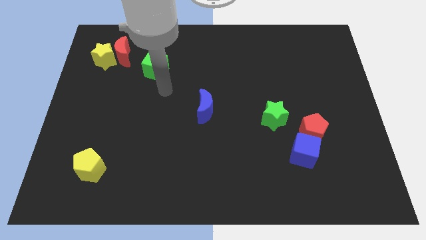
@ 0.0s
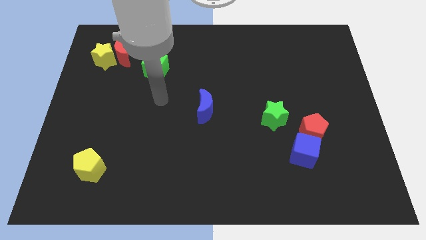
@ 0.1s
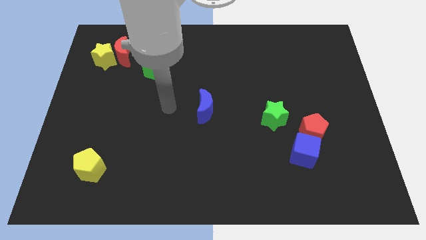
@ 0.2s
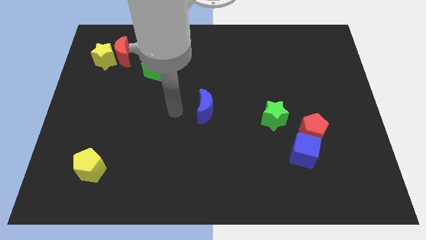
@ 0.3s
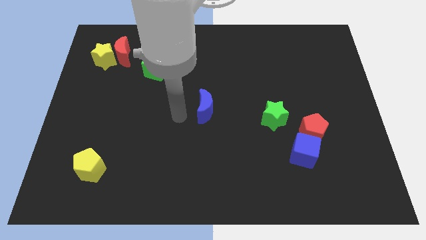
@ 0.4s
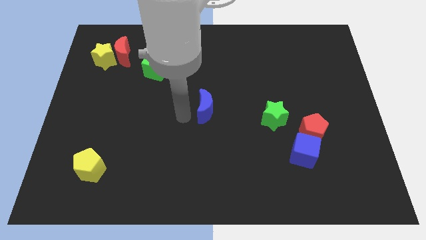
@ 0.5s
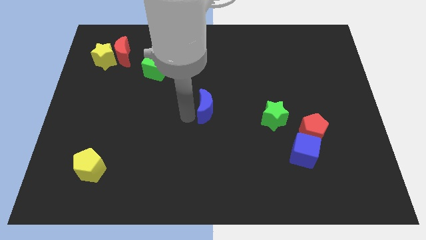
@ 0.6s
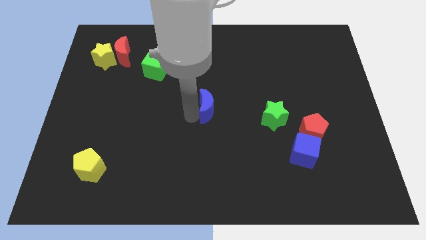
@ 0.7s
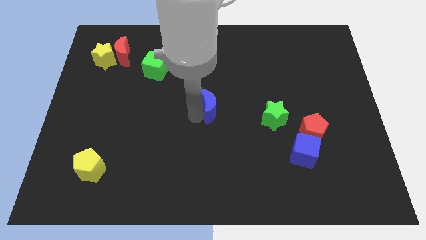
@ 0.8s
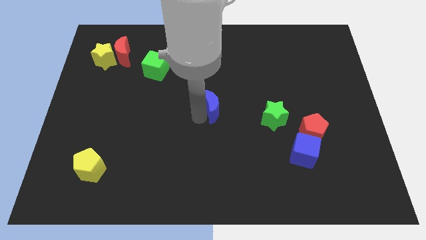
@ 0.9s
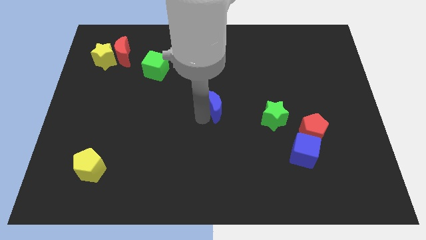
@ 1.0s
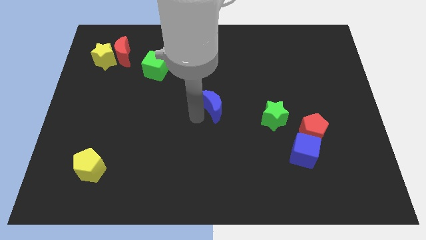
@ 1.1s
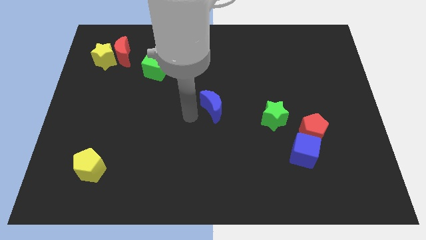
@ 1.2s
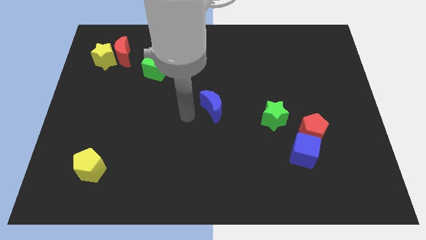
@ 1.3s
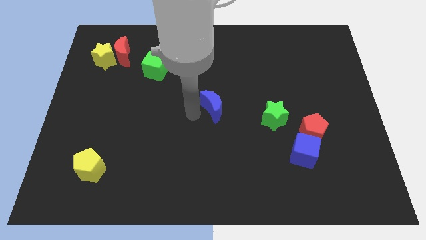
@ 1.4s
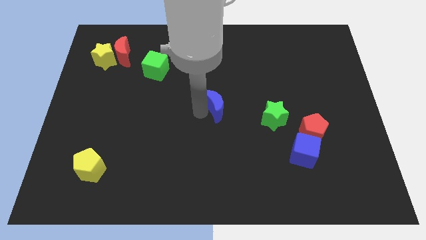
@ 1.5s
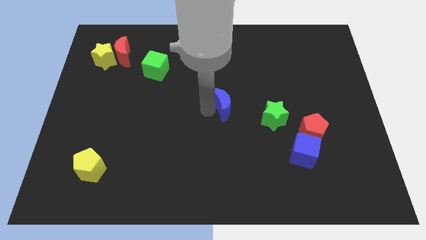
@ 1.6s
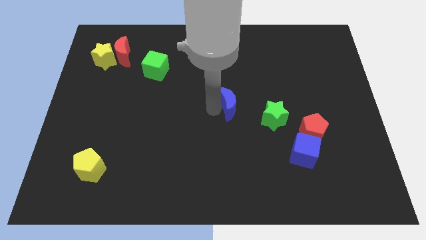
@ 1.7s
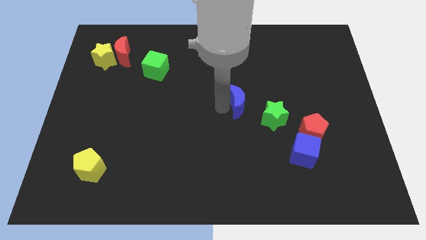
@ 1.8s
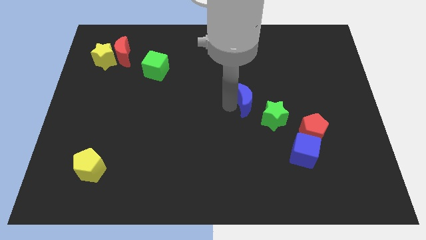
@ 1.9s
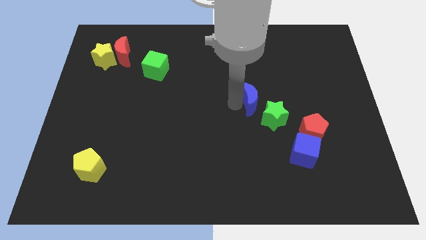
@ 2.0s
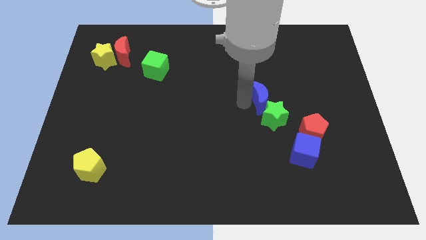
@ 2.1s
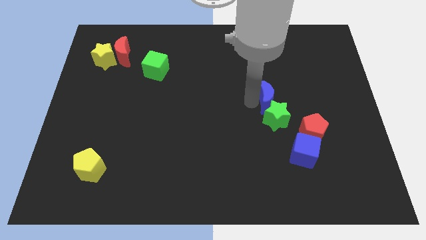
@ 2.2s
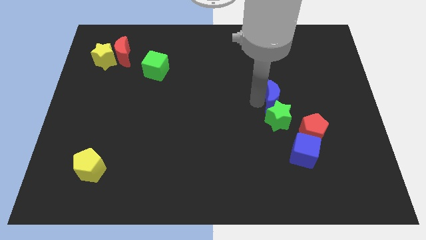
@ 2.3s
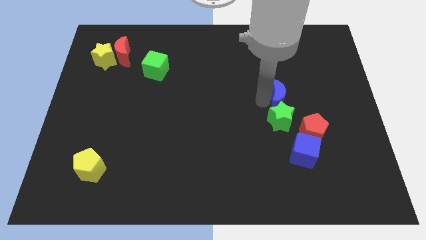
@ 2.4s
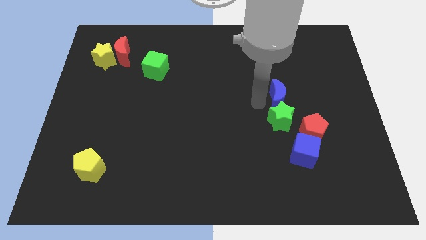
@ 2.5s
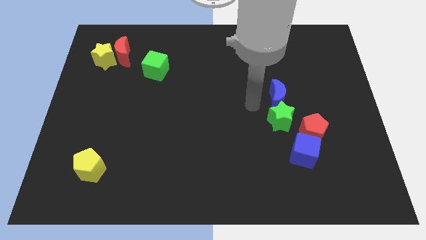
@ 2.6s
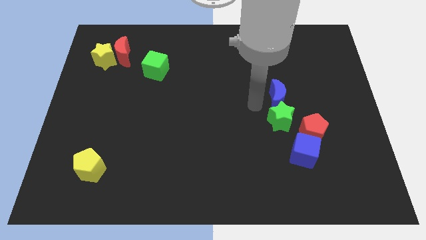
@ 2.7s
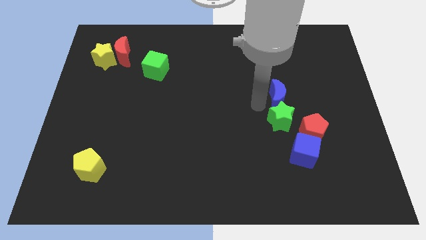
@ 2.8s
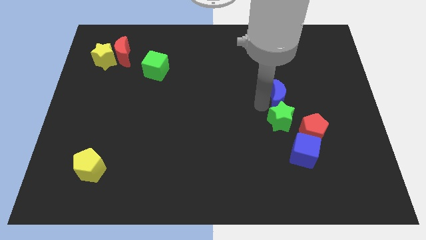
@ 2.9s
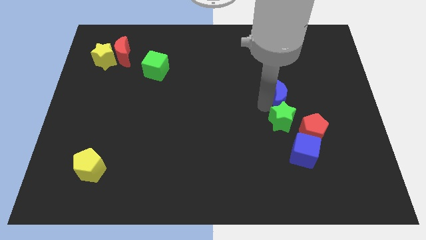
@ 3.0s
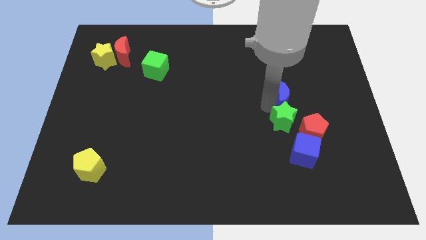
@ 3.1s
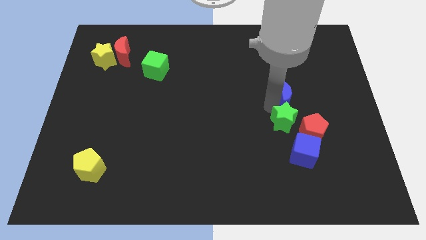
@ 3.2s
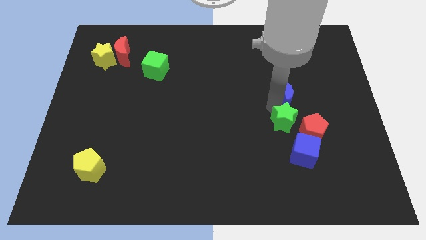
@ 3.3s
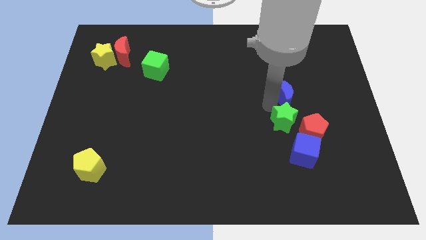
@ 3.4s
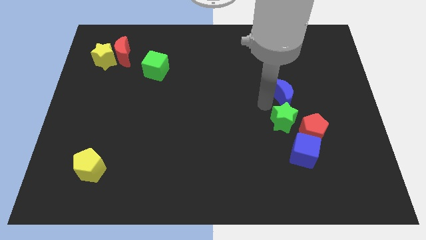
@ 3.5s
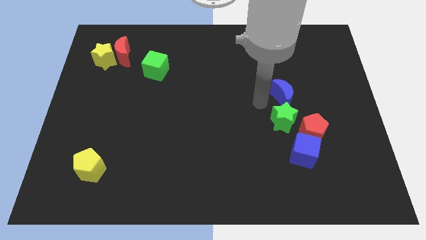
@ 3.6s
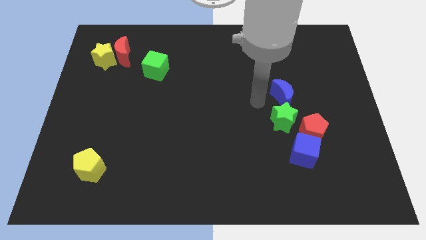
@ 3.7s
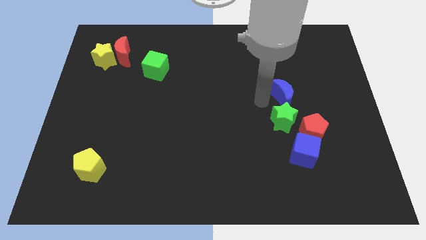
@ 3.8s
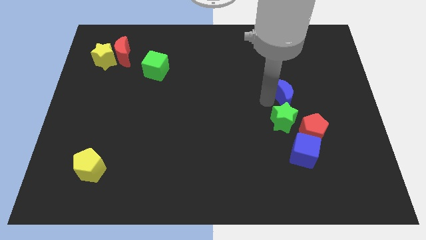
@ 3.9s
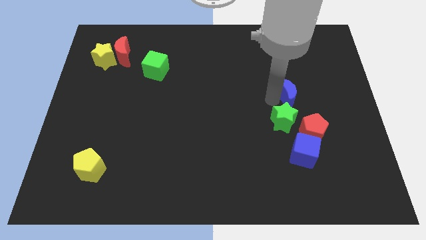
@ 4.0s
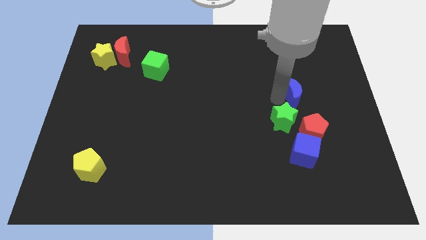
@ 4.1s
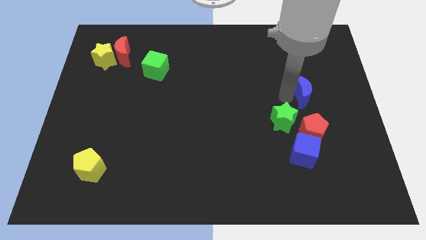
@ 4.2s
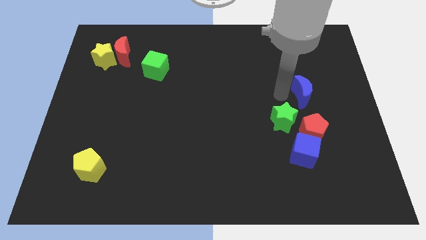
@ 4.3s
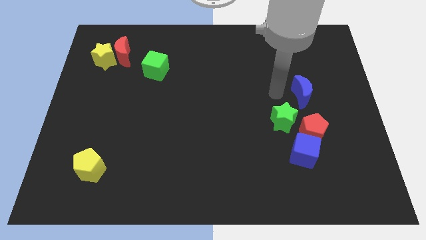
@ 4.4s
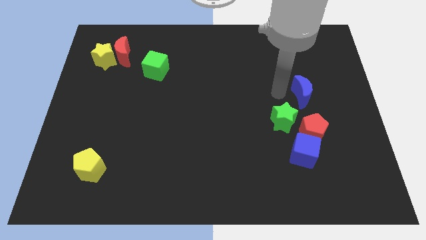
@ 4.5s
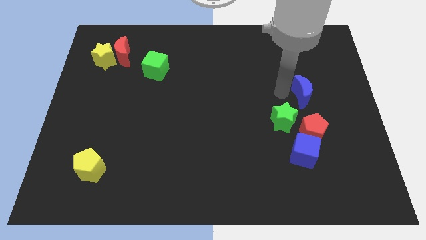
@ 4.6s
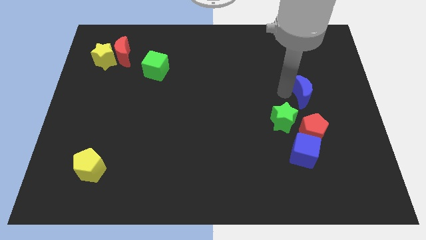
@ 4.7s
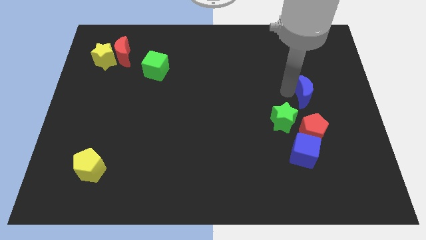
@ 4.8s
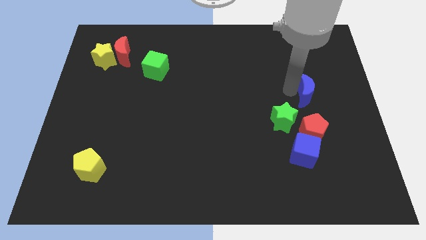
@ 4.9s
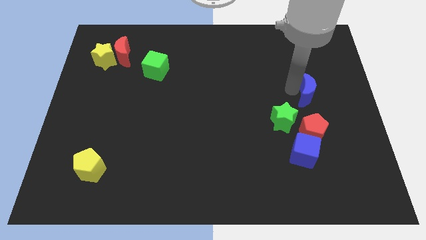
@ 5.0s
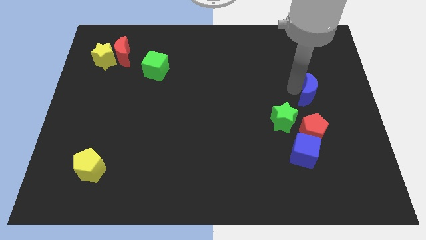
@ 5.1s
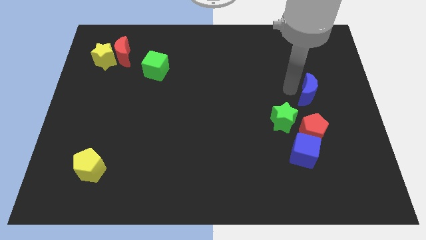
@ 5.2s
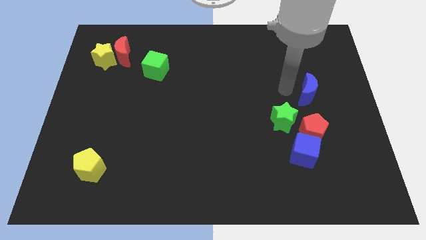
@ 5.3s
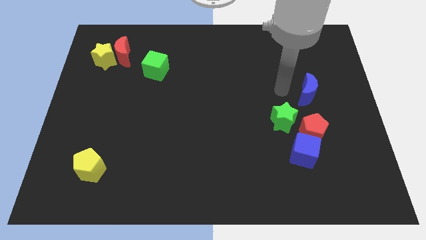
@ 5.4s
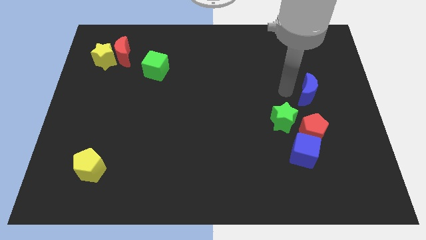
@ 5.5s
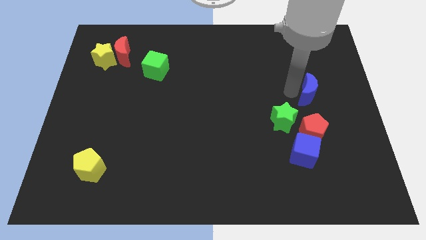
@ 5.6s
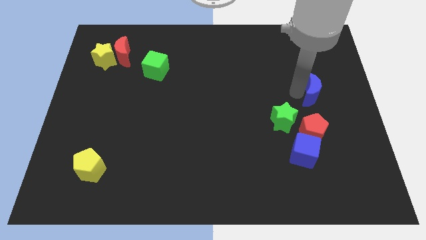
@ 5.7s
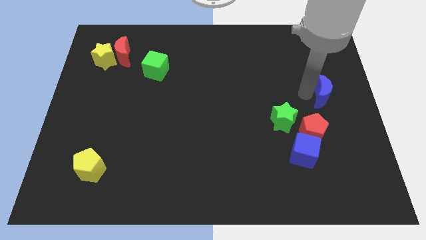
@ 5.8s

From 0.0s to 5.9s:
put the blue moon to the center right

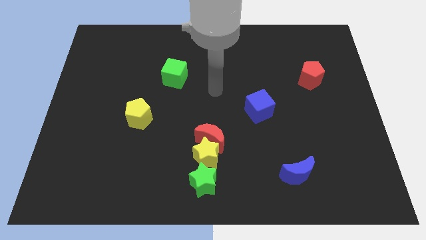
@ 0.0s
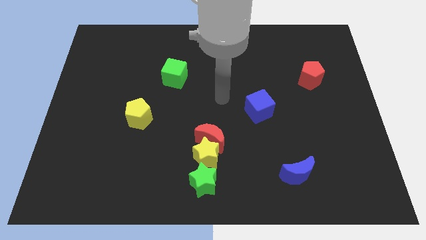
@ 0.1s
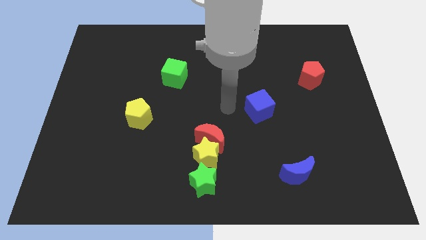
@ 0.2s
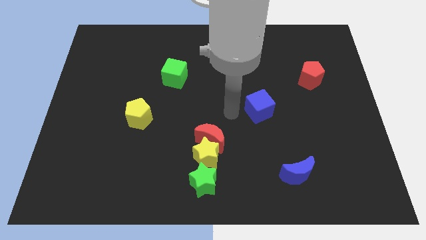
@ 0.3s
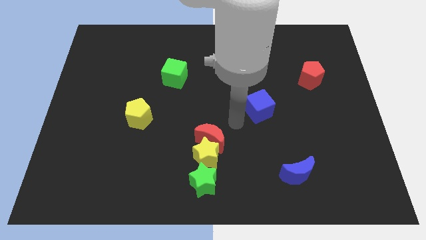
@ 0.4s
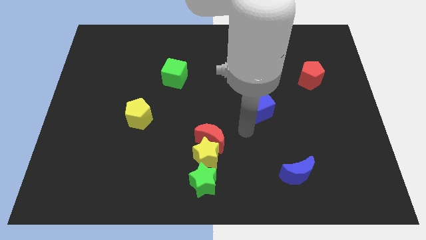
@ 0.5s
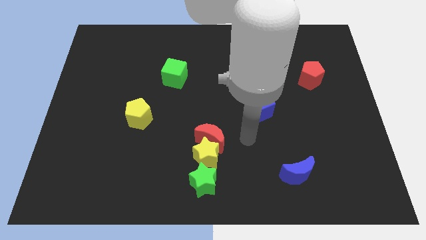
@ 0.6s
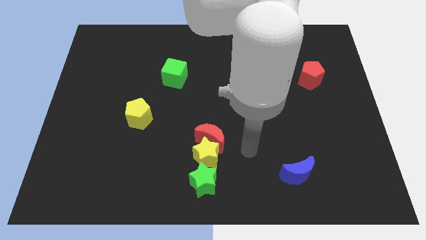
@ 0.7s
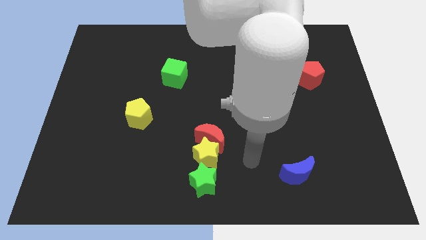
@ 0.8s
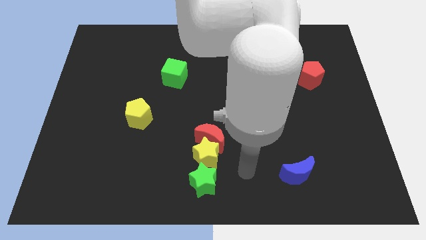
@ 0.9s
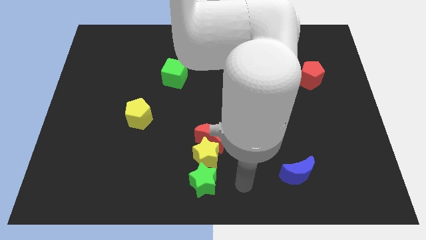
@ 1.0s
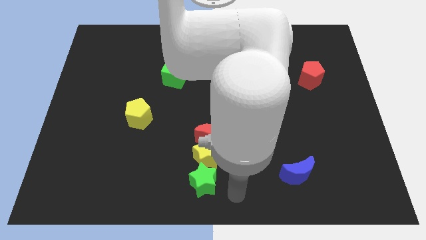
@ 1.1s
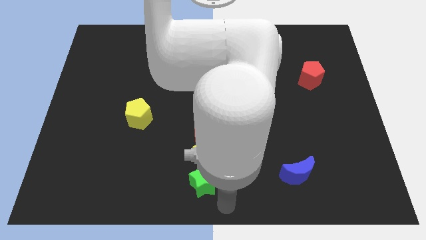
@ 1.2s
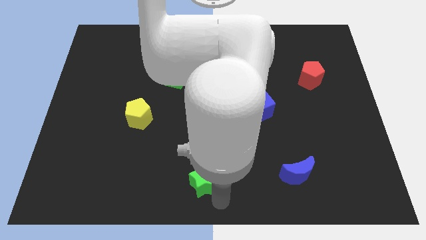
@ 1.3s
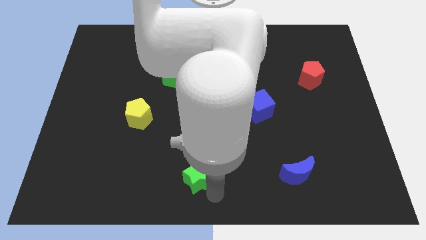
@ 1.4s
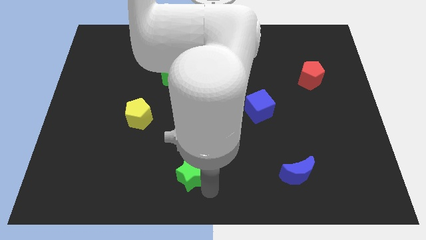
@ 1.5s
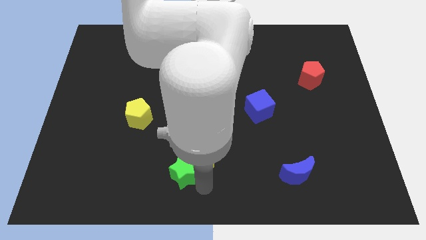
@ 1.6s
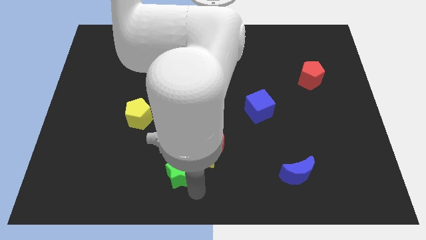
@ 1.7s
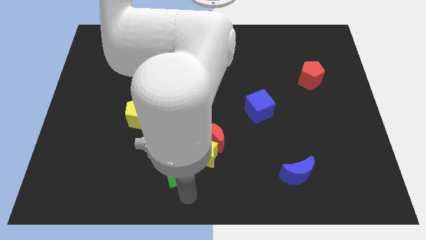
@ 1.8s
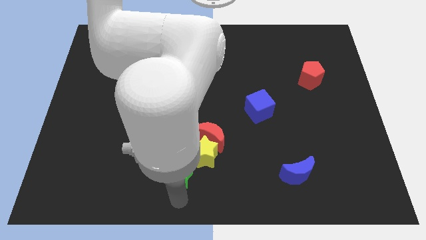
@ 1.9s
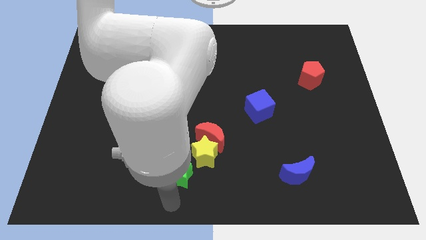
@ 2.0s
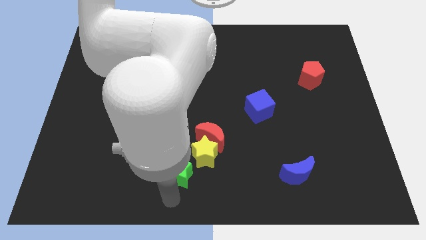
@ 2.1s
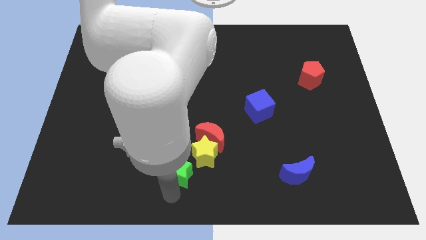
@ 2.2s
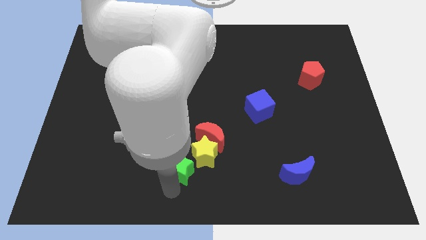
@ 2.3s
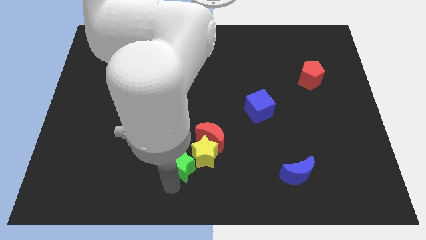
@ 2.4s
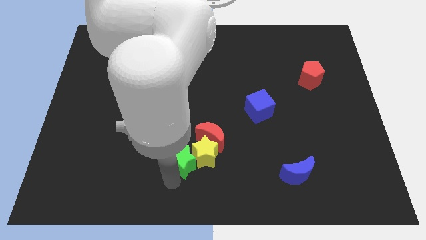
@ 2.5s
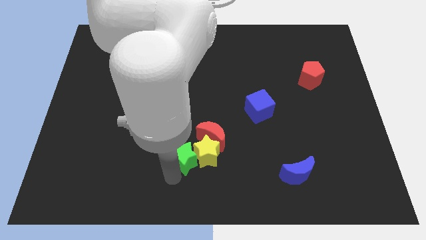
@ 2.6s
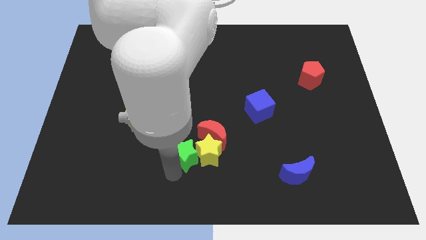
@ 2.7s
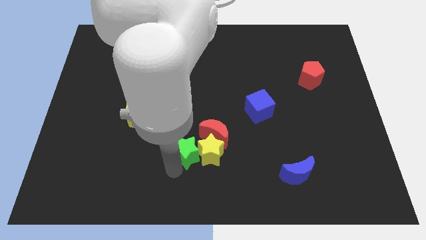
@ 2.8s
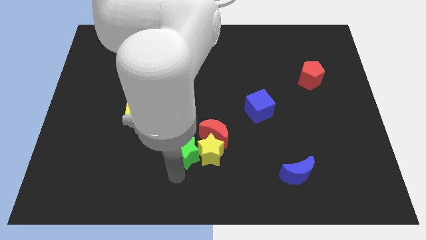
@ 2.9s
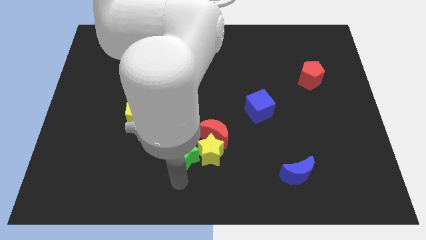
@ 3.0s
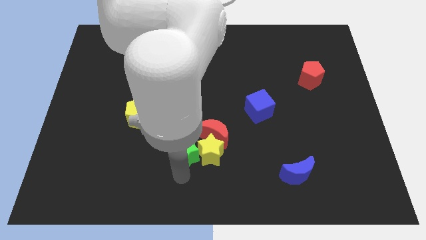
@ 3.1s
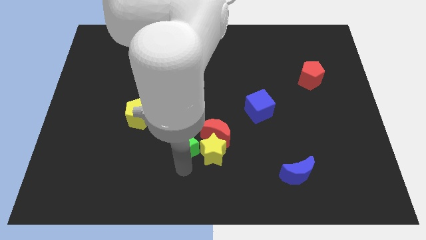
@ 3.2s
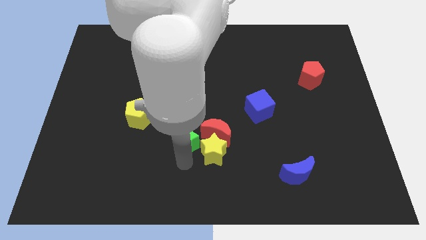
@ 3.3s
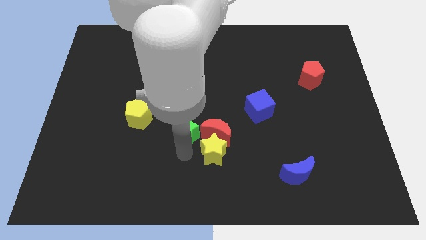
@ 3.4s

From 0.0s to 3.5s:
move the green star to the center
